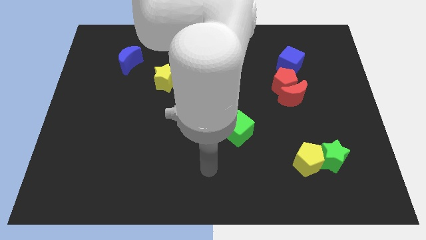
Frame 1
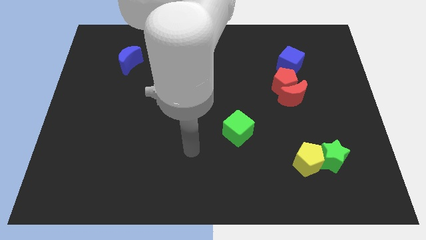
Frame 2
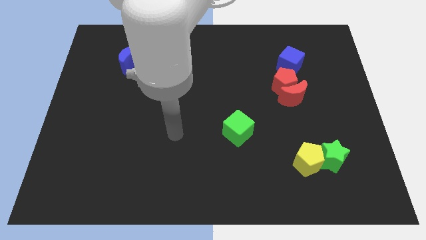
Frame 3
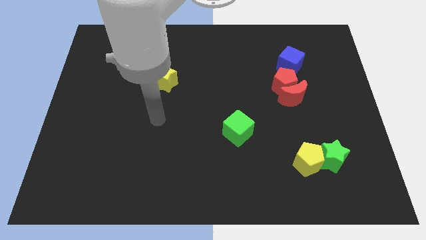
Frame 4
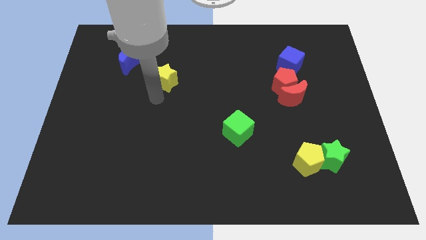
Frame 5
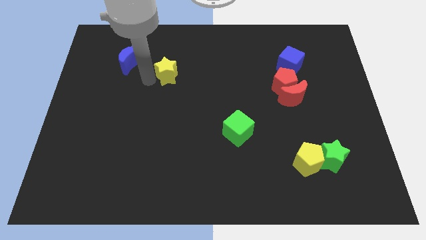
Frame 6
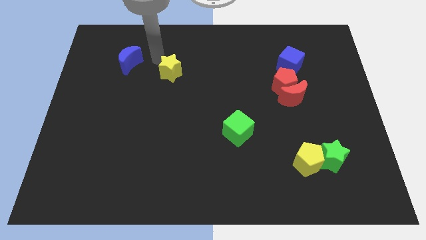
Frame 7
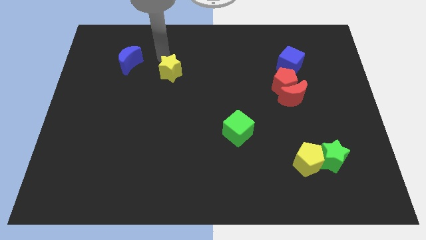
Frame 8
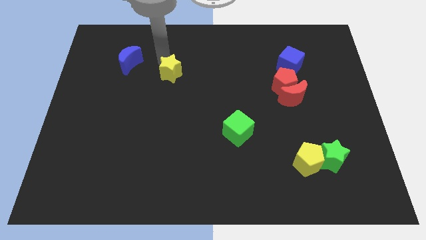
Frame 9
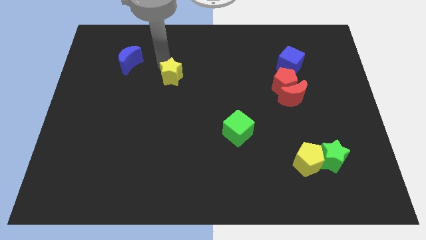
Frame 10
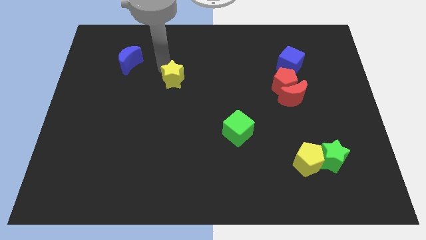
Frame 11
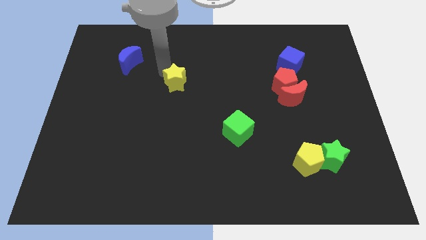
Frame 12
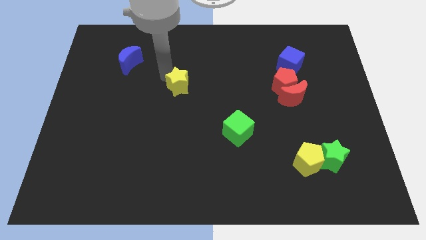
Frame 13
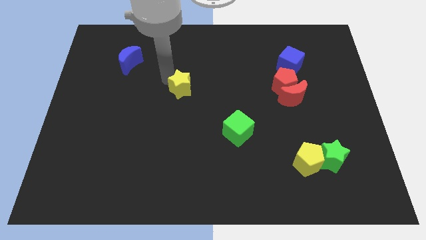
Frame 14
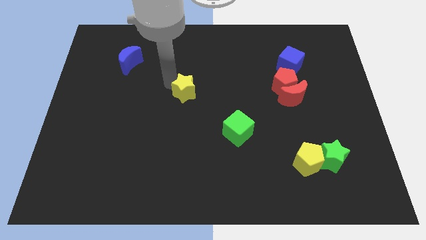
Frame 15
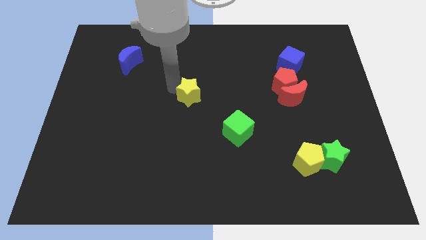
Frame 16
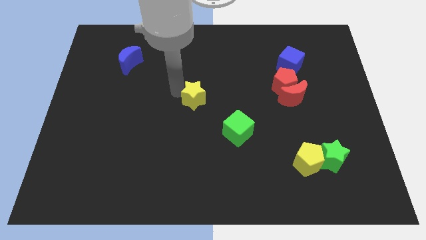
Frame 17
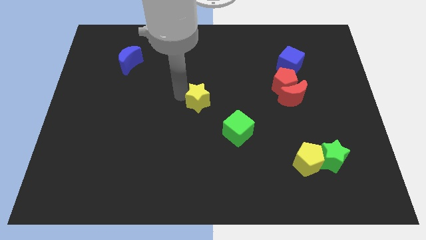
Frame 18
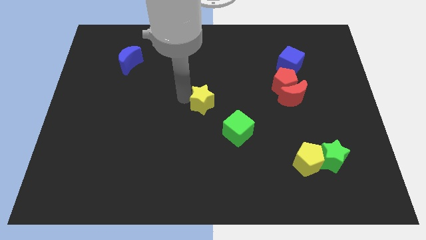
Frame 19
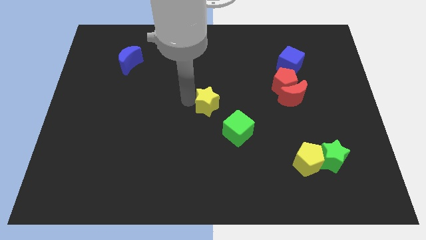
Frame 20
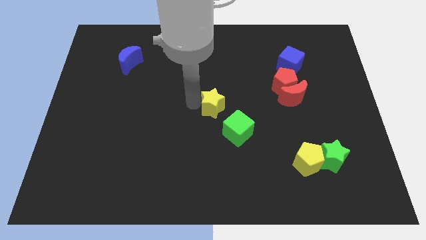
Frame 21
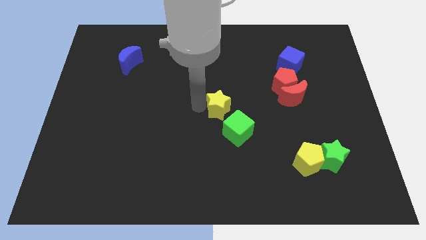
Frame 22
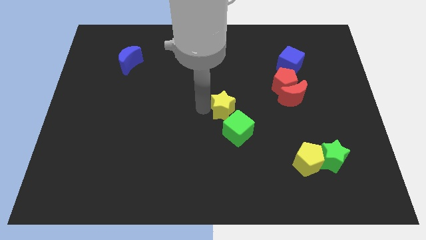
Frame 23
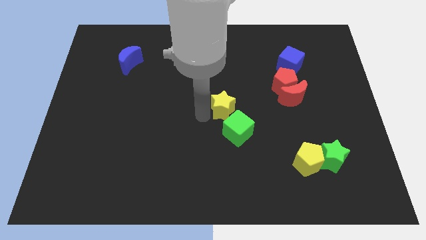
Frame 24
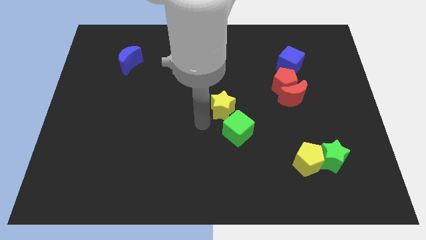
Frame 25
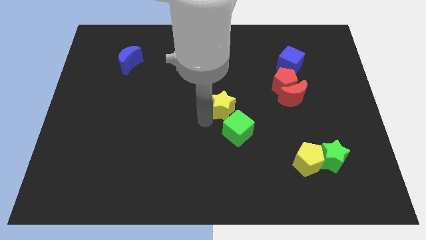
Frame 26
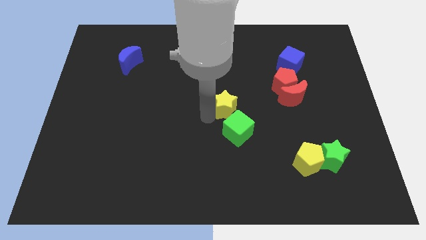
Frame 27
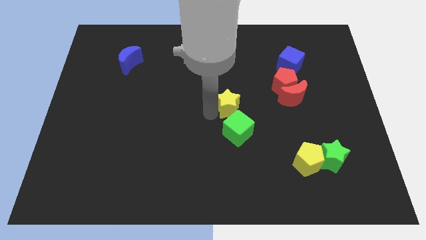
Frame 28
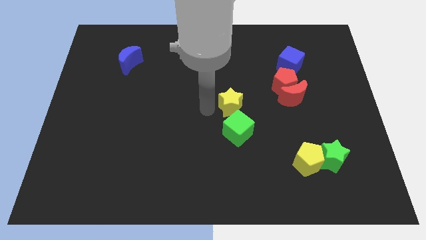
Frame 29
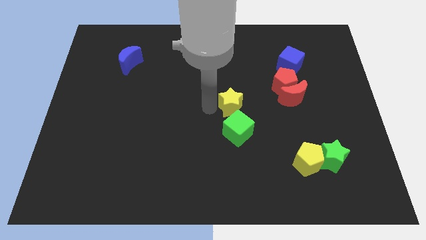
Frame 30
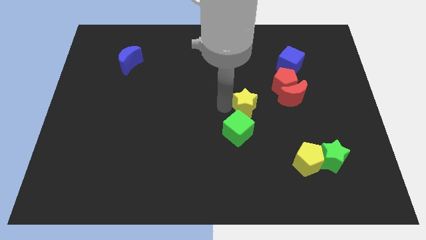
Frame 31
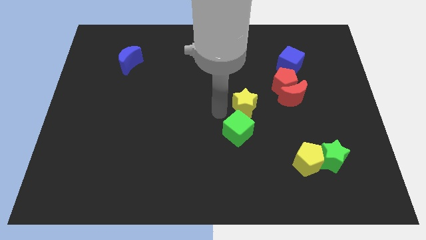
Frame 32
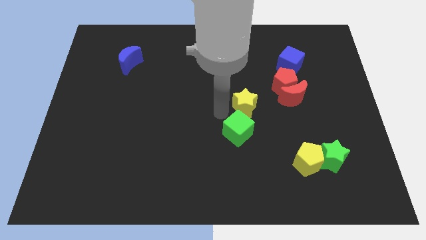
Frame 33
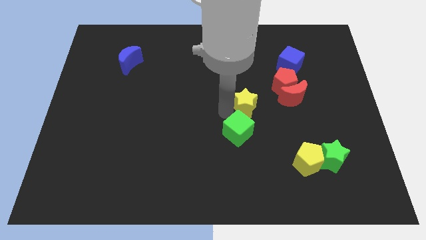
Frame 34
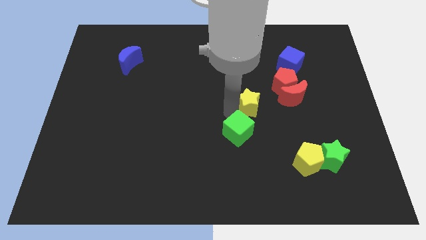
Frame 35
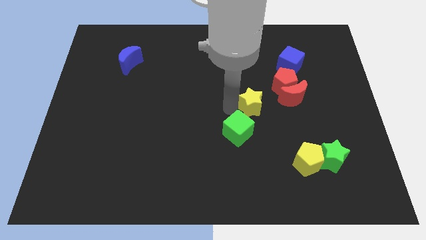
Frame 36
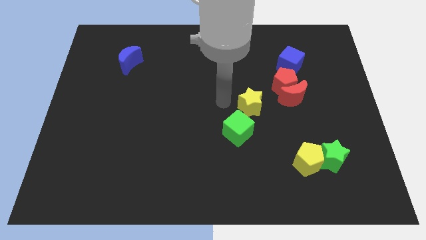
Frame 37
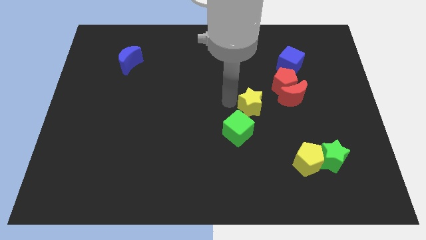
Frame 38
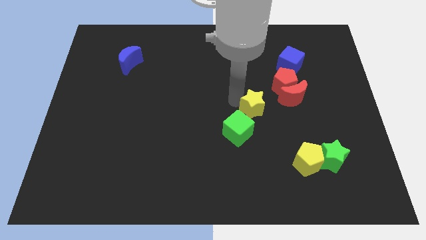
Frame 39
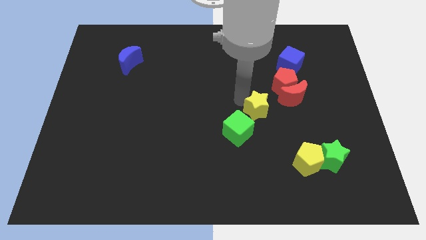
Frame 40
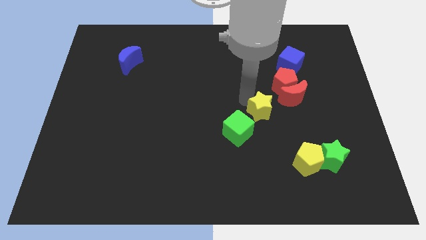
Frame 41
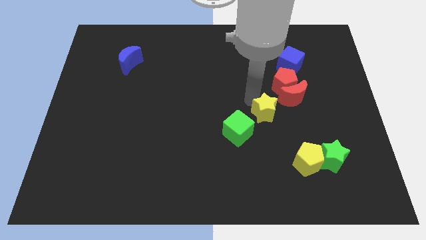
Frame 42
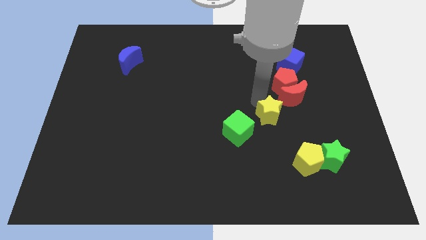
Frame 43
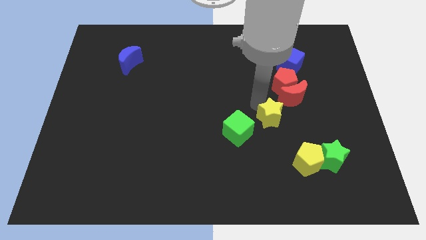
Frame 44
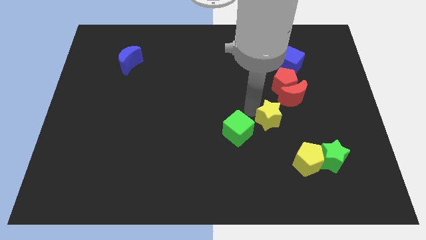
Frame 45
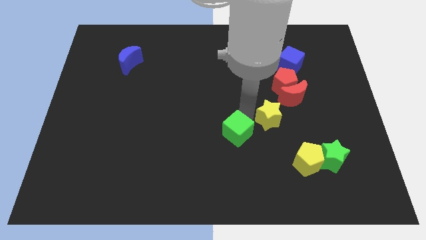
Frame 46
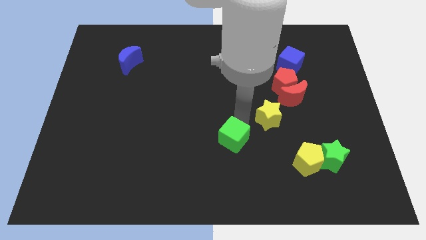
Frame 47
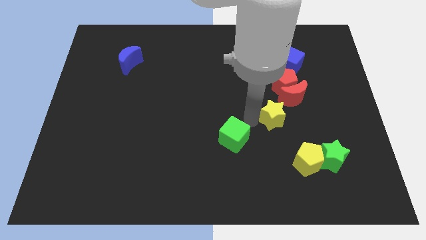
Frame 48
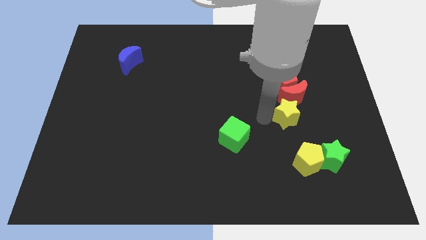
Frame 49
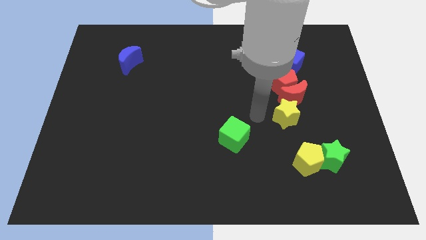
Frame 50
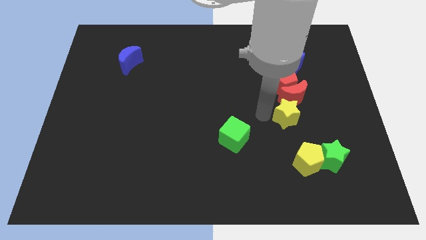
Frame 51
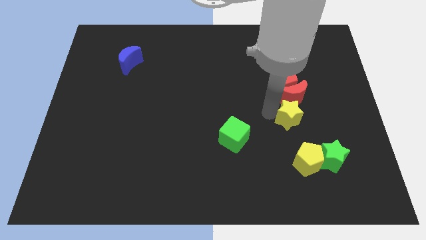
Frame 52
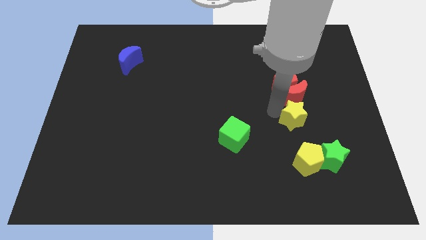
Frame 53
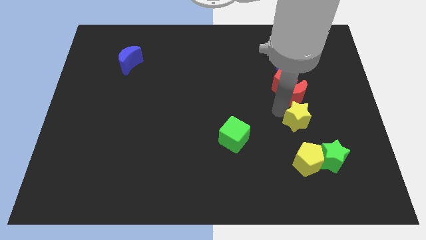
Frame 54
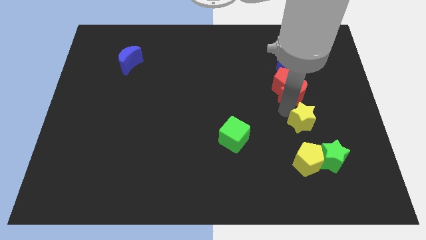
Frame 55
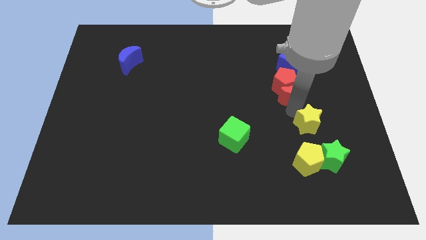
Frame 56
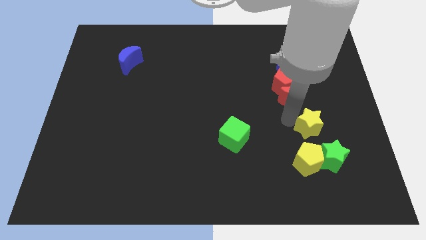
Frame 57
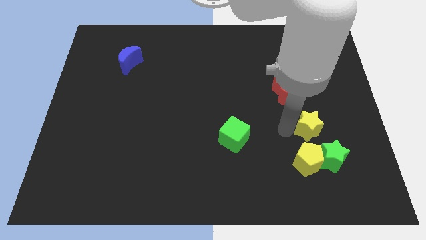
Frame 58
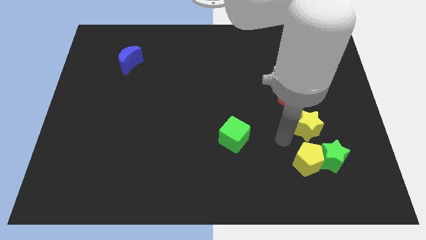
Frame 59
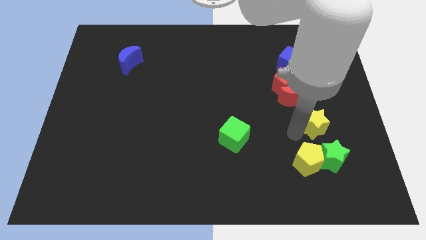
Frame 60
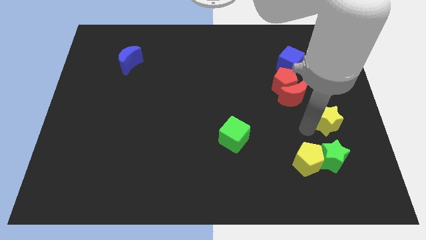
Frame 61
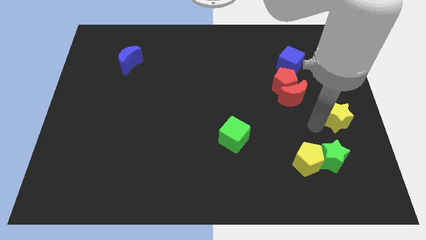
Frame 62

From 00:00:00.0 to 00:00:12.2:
move the yellow star to the right side
